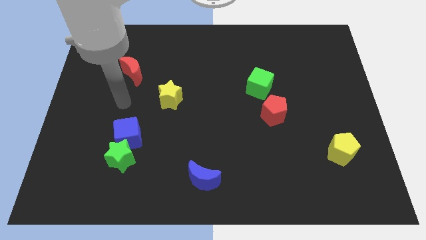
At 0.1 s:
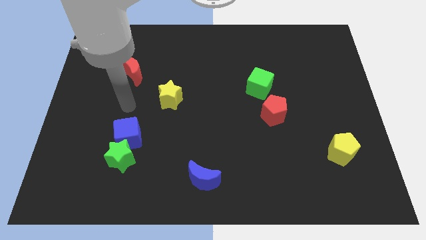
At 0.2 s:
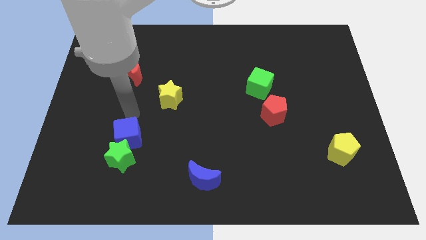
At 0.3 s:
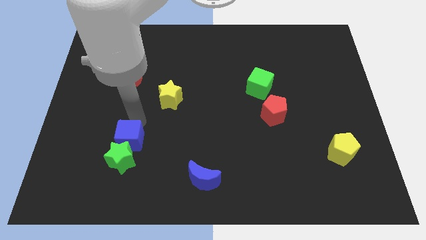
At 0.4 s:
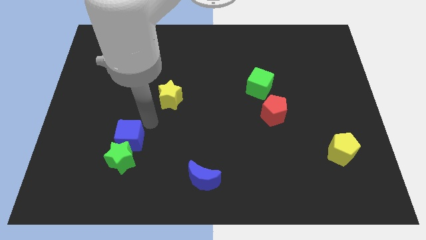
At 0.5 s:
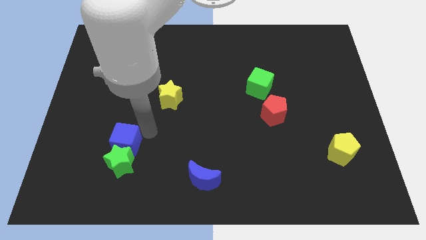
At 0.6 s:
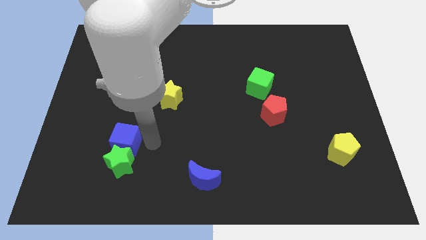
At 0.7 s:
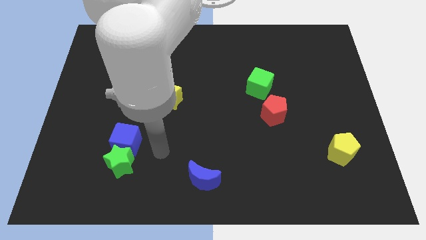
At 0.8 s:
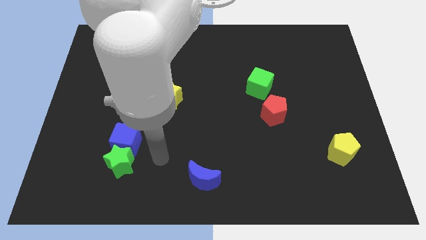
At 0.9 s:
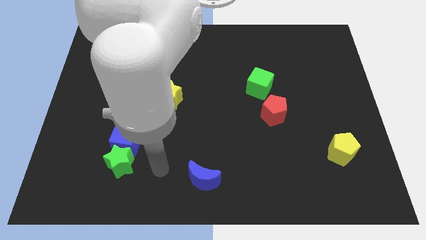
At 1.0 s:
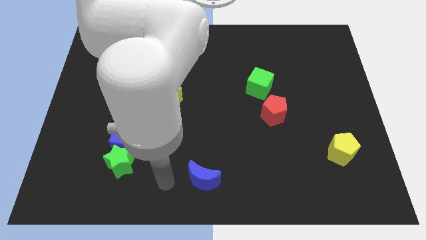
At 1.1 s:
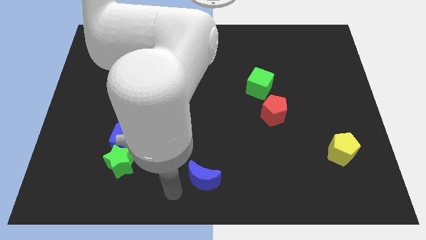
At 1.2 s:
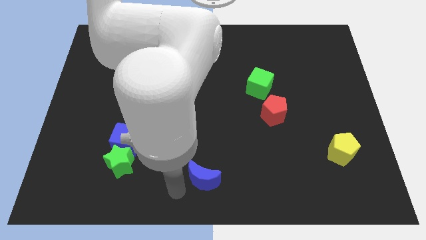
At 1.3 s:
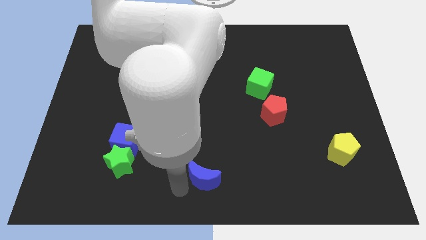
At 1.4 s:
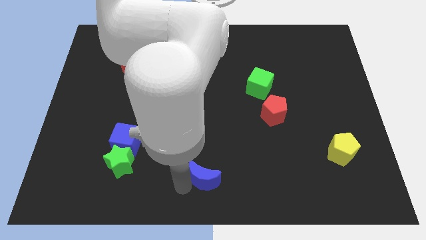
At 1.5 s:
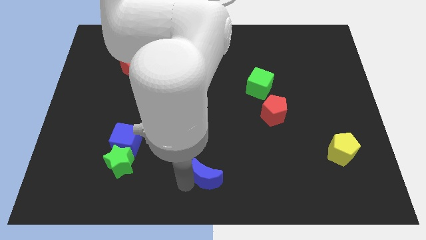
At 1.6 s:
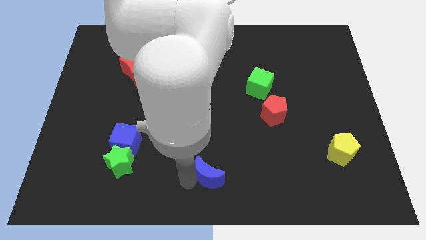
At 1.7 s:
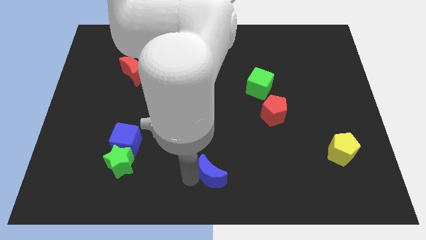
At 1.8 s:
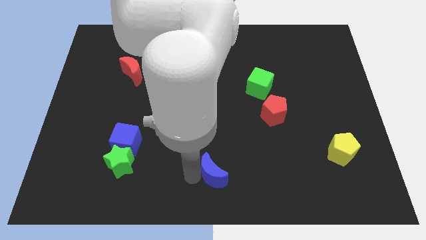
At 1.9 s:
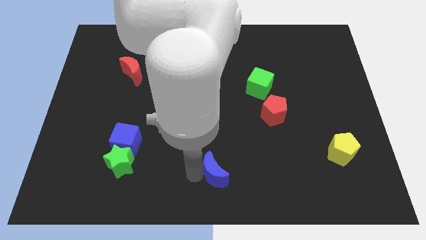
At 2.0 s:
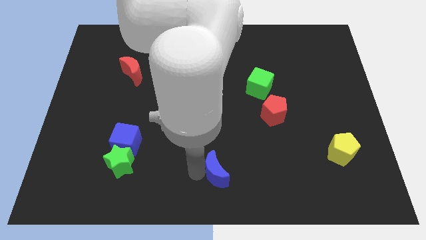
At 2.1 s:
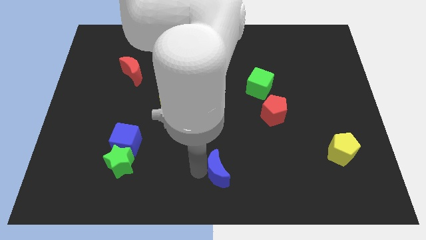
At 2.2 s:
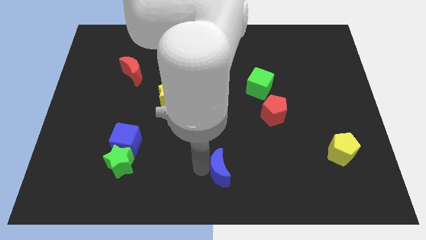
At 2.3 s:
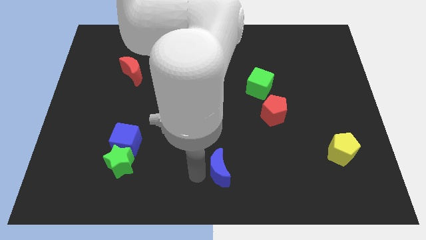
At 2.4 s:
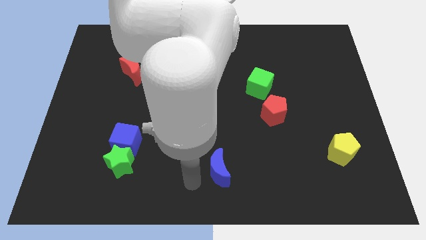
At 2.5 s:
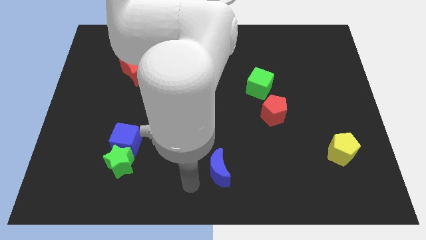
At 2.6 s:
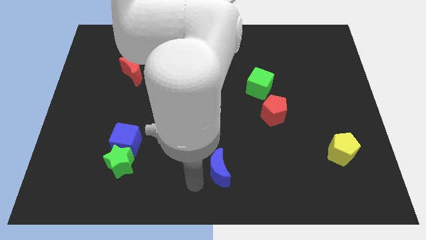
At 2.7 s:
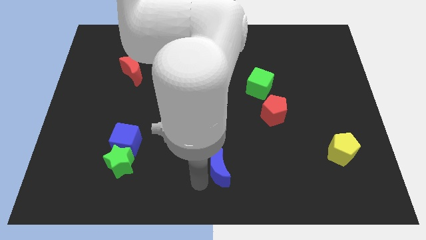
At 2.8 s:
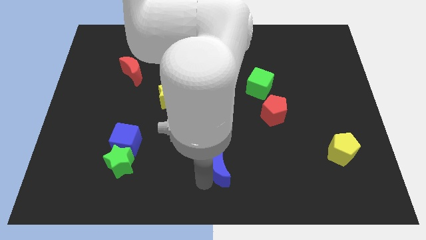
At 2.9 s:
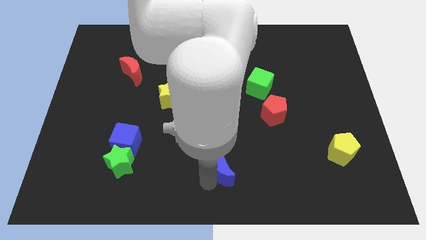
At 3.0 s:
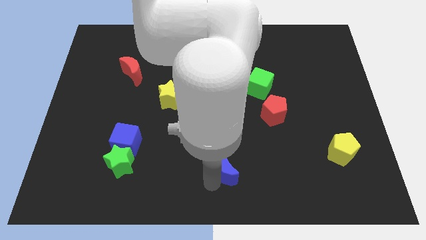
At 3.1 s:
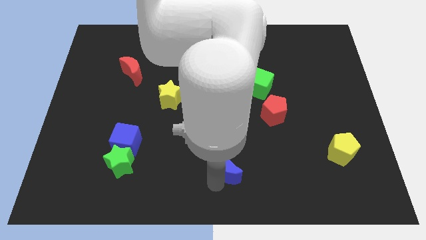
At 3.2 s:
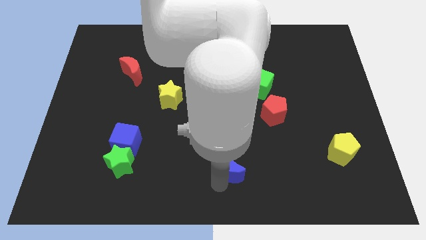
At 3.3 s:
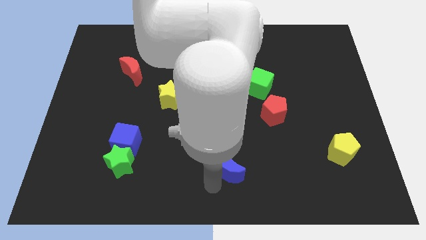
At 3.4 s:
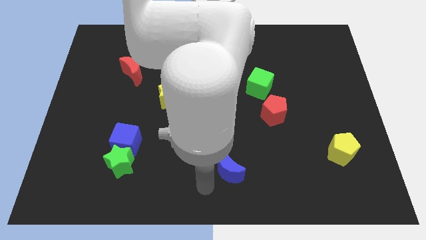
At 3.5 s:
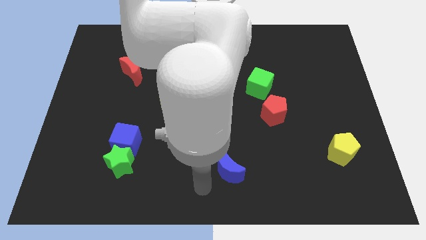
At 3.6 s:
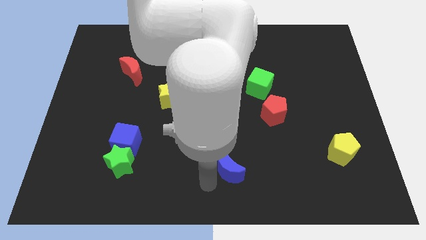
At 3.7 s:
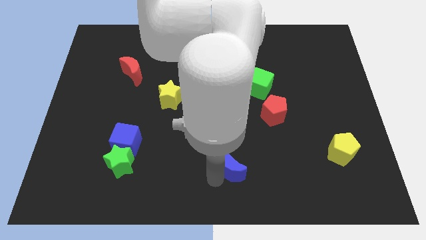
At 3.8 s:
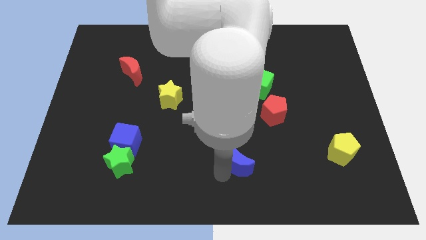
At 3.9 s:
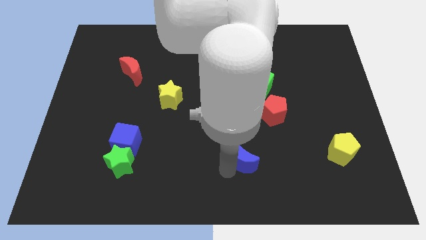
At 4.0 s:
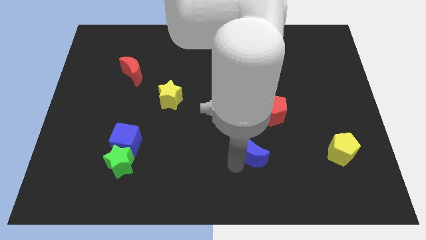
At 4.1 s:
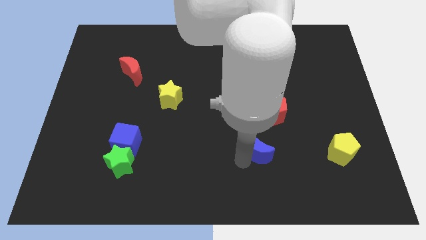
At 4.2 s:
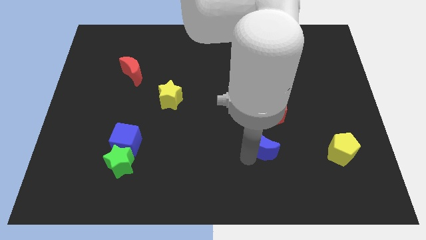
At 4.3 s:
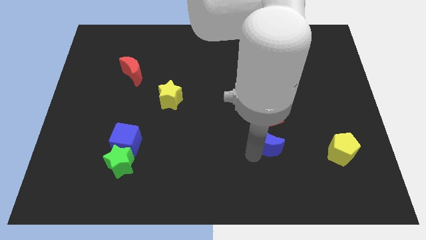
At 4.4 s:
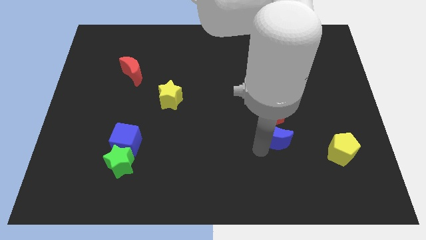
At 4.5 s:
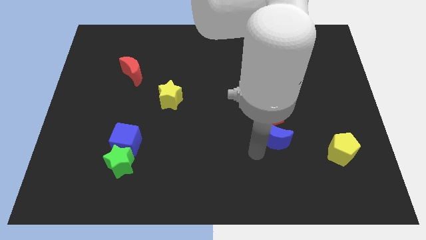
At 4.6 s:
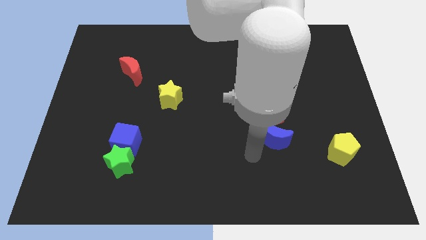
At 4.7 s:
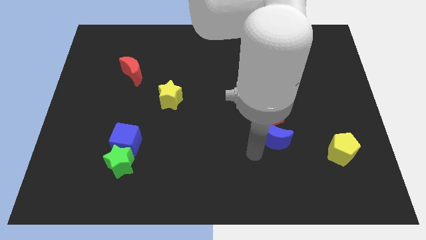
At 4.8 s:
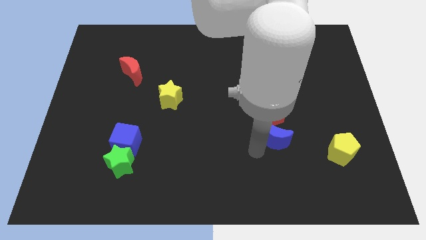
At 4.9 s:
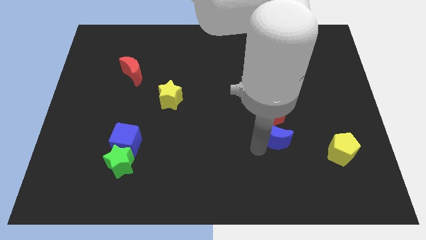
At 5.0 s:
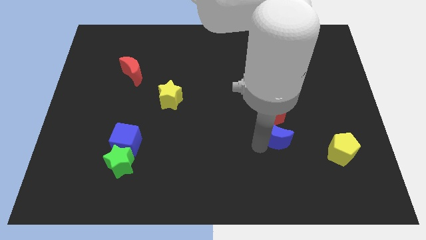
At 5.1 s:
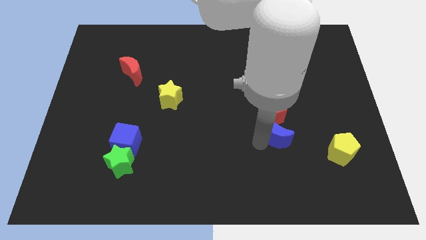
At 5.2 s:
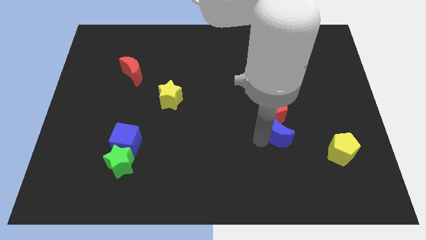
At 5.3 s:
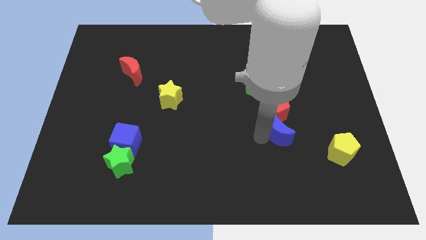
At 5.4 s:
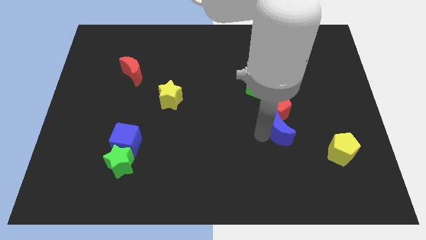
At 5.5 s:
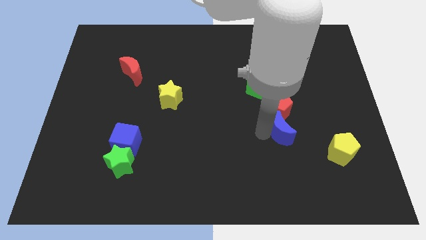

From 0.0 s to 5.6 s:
push the blue moon up and to the right

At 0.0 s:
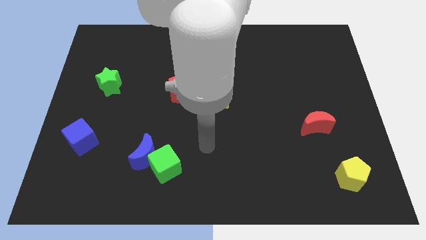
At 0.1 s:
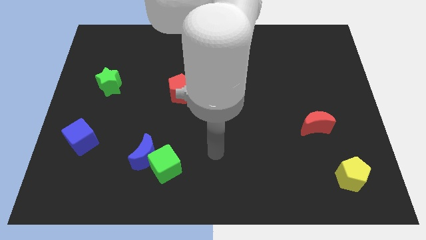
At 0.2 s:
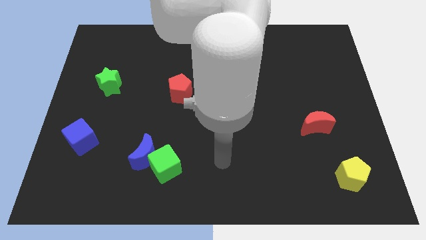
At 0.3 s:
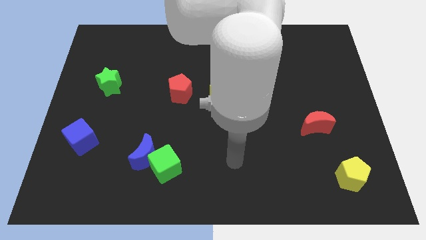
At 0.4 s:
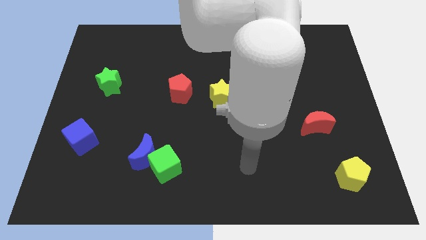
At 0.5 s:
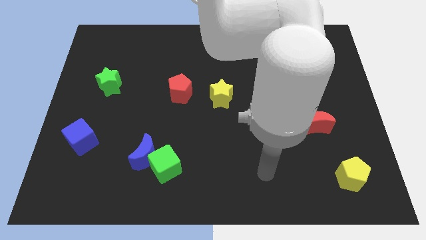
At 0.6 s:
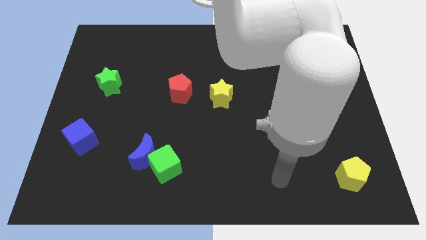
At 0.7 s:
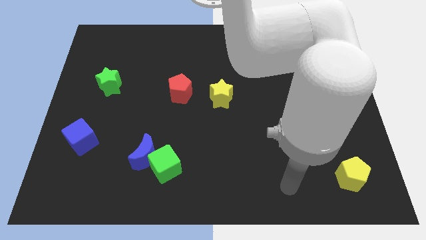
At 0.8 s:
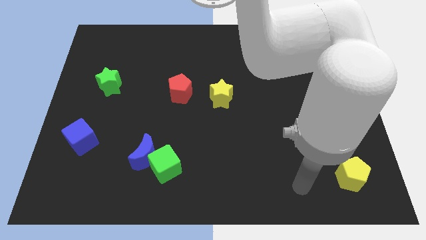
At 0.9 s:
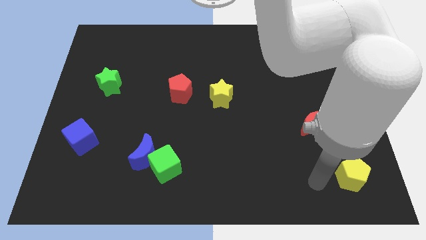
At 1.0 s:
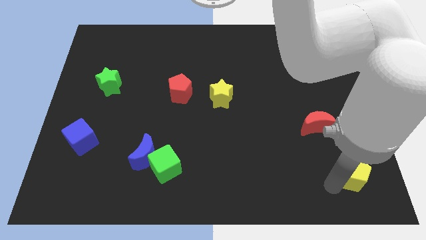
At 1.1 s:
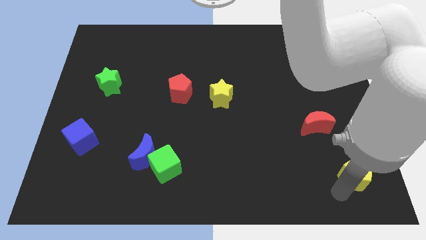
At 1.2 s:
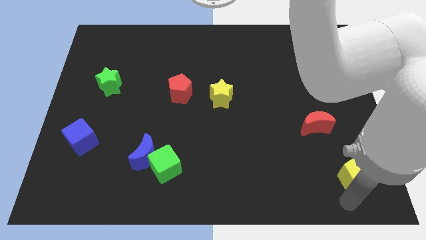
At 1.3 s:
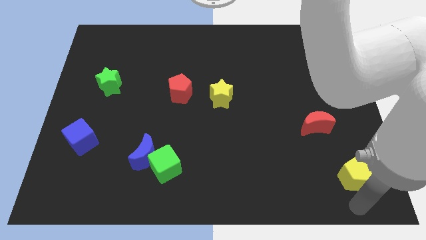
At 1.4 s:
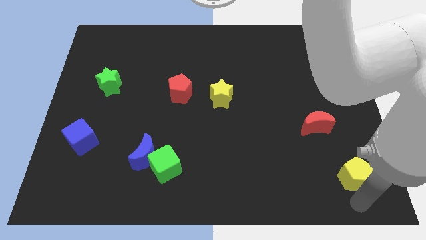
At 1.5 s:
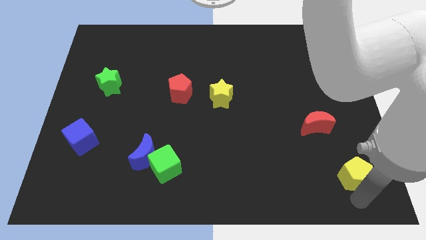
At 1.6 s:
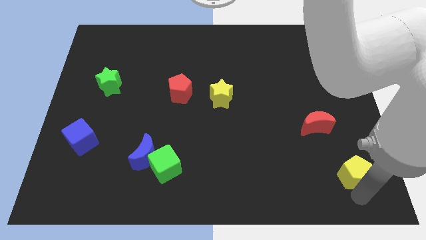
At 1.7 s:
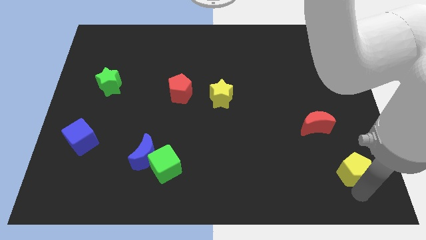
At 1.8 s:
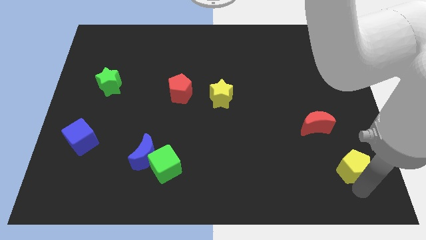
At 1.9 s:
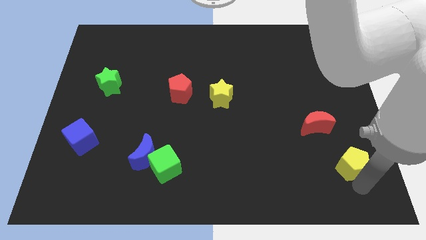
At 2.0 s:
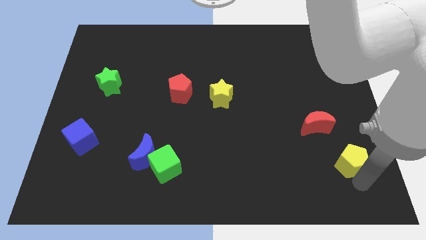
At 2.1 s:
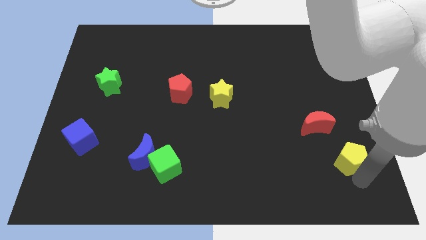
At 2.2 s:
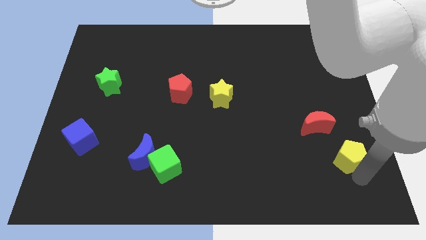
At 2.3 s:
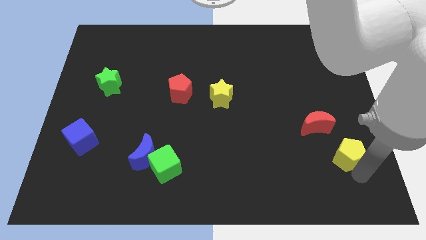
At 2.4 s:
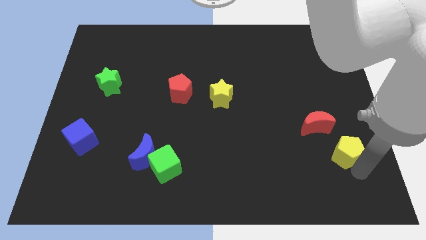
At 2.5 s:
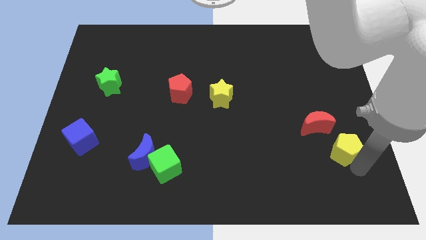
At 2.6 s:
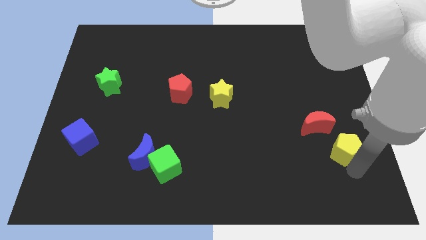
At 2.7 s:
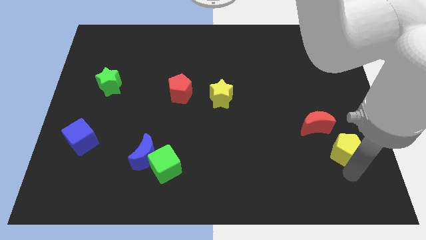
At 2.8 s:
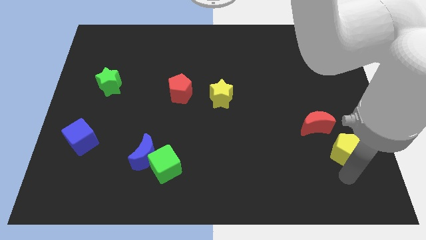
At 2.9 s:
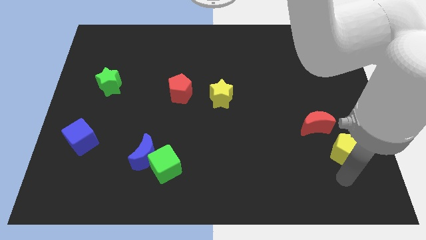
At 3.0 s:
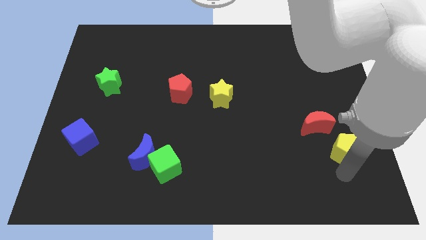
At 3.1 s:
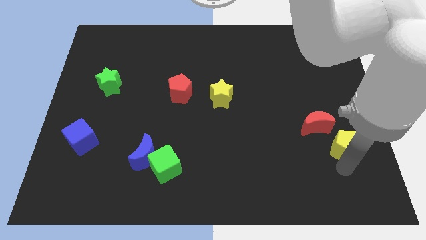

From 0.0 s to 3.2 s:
slightly push the yellow pentagon up
